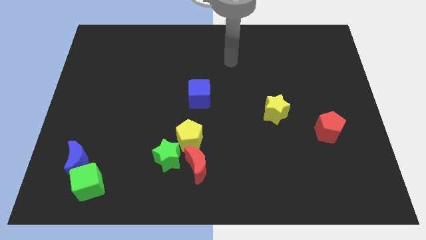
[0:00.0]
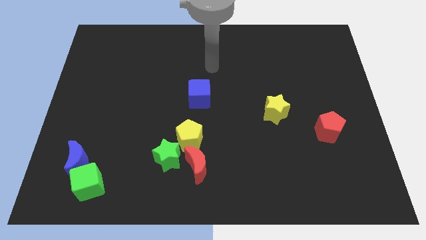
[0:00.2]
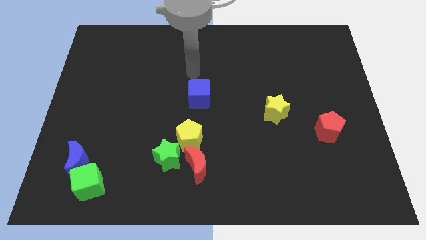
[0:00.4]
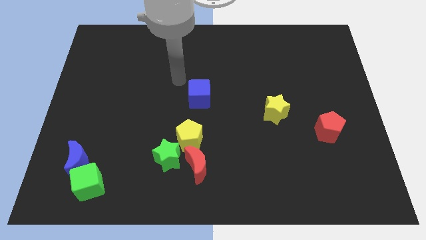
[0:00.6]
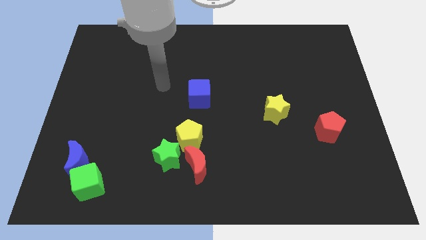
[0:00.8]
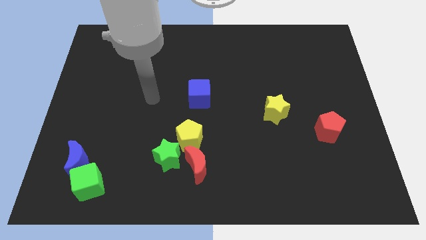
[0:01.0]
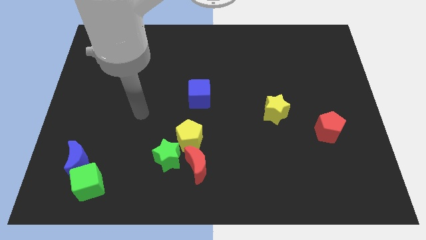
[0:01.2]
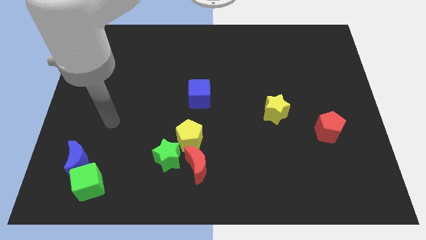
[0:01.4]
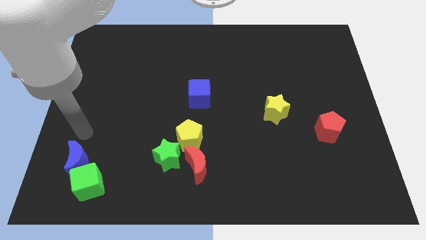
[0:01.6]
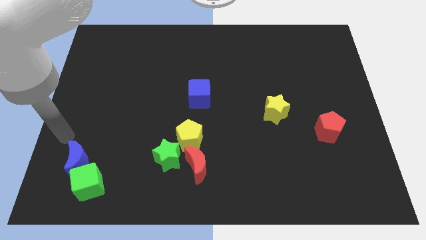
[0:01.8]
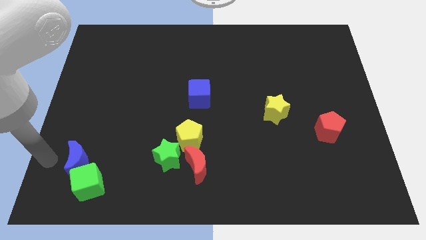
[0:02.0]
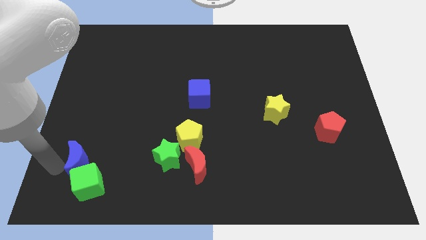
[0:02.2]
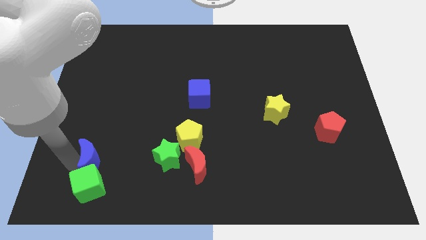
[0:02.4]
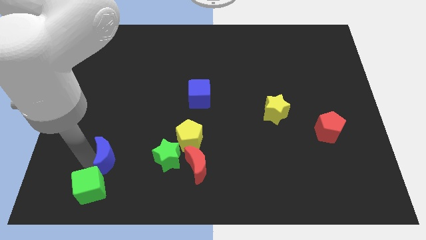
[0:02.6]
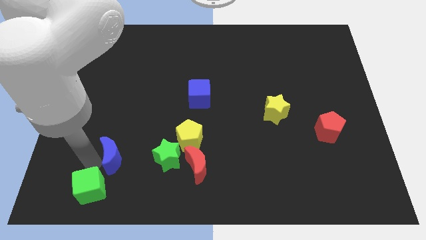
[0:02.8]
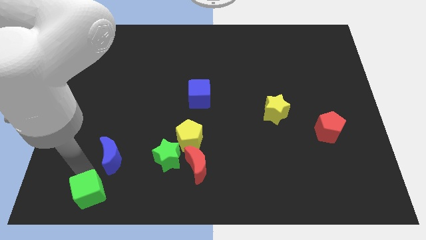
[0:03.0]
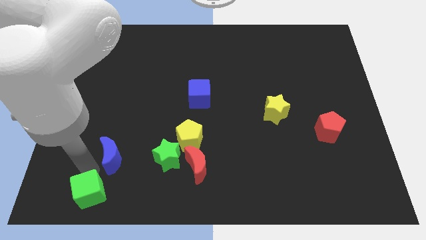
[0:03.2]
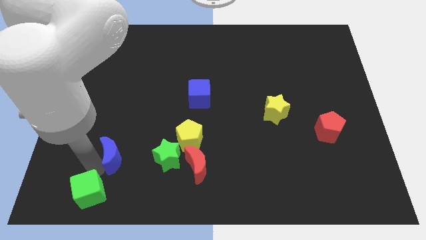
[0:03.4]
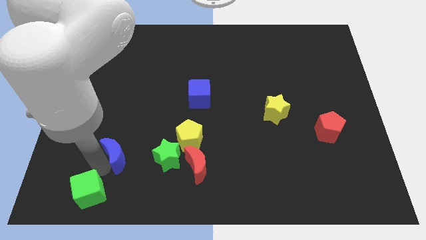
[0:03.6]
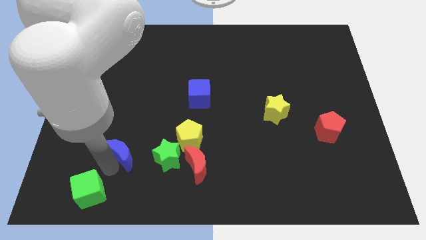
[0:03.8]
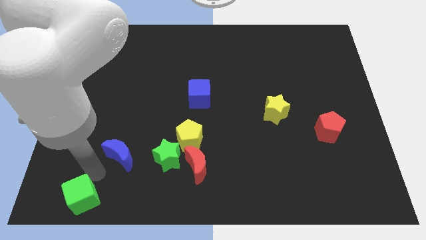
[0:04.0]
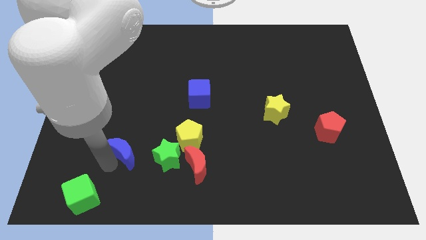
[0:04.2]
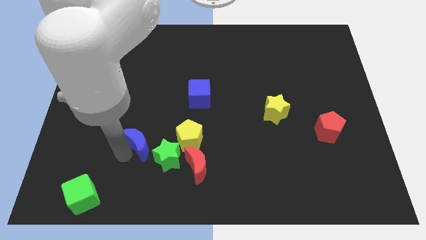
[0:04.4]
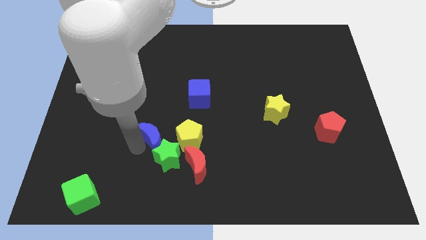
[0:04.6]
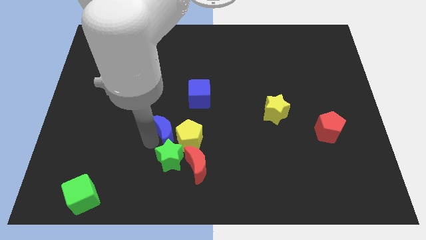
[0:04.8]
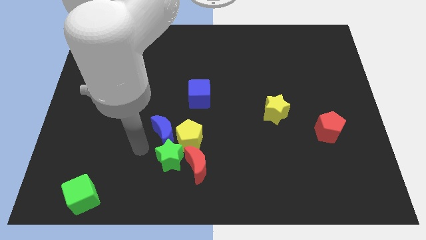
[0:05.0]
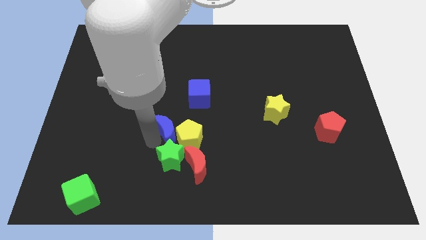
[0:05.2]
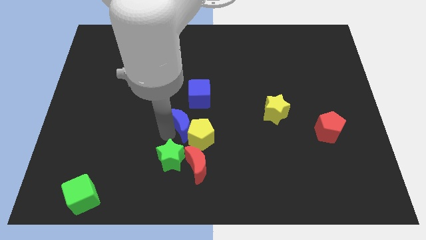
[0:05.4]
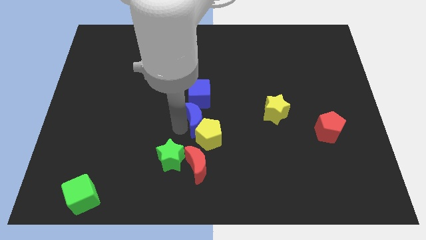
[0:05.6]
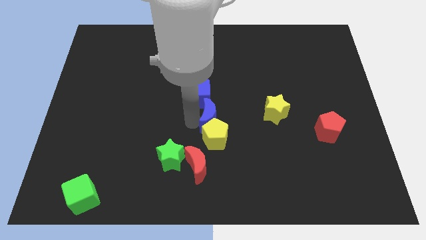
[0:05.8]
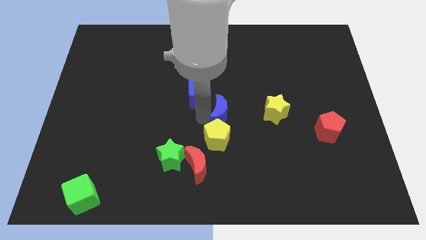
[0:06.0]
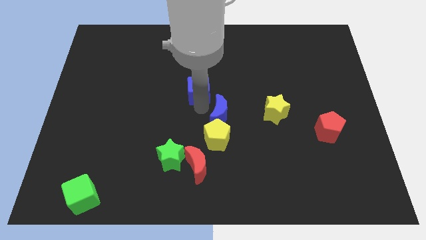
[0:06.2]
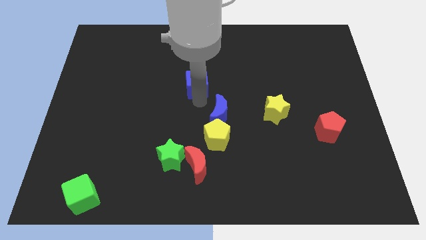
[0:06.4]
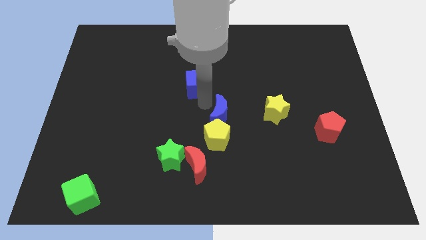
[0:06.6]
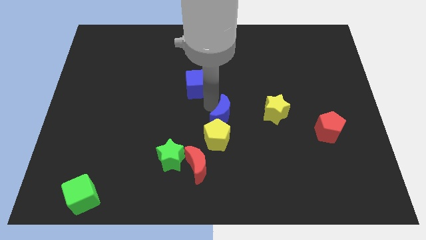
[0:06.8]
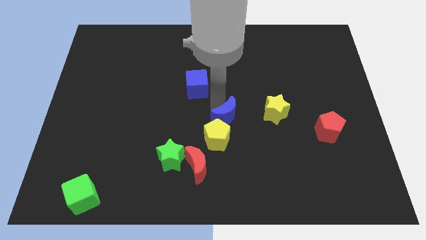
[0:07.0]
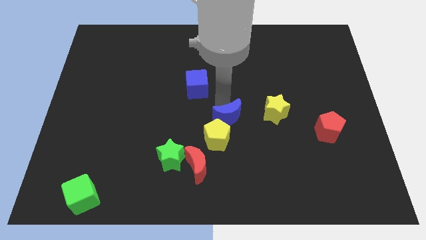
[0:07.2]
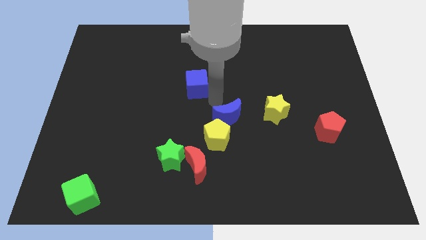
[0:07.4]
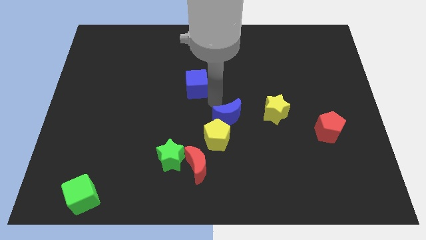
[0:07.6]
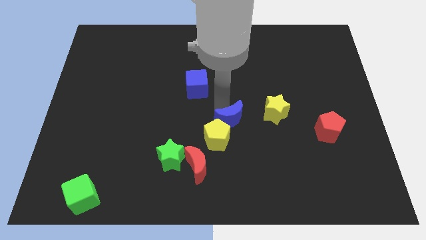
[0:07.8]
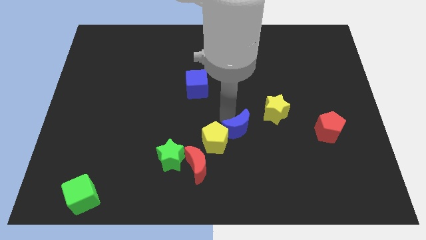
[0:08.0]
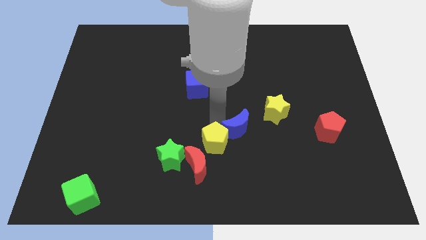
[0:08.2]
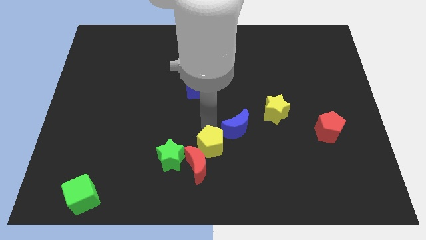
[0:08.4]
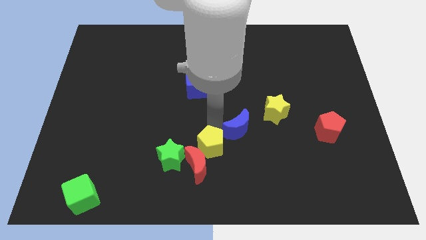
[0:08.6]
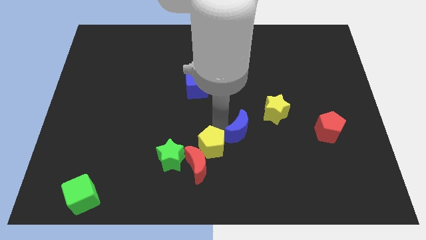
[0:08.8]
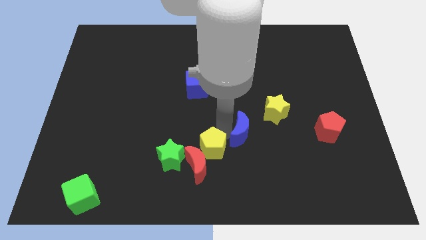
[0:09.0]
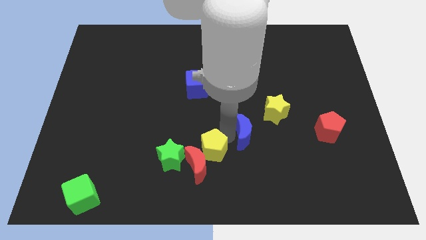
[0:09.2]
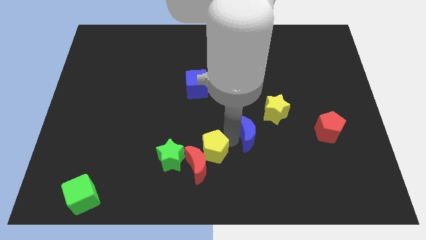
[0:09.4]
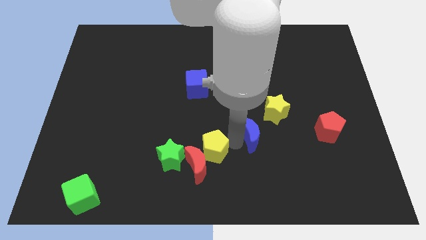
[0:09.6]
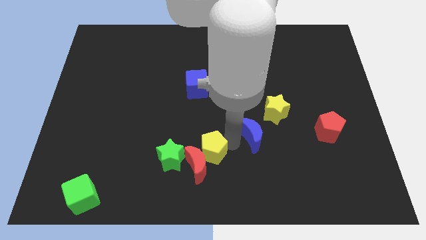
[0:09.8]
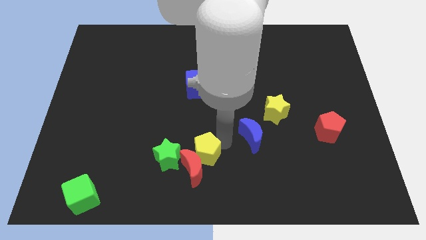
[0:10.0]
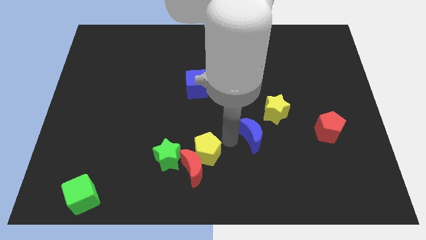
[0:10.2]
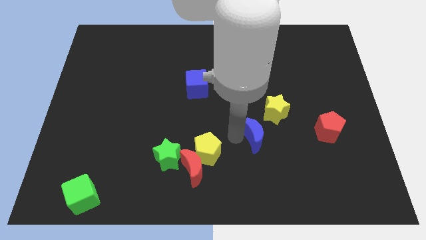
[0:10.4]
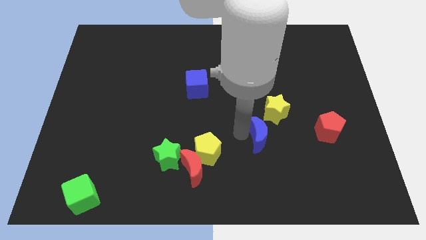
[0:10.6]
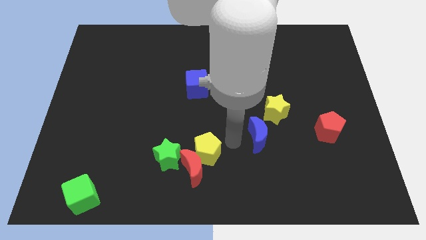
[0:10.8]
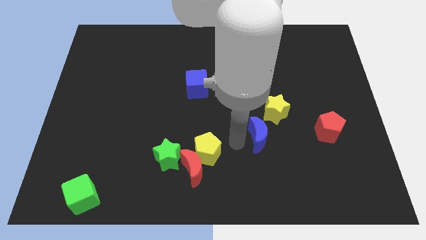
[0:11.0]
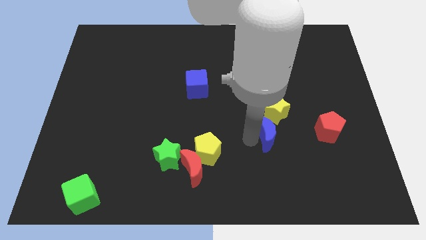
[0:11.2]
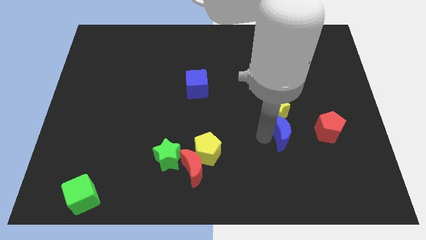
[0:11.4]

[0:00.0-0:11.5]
move the blue moon to the bottom right side of the yellow star

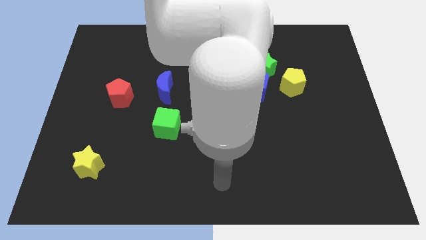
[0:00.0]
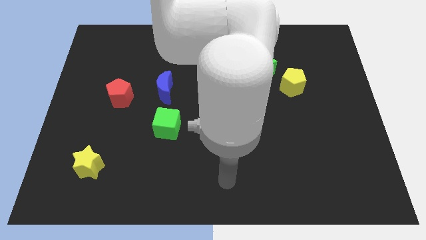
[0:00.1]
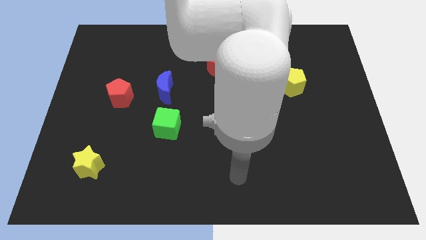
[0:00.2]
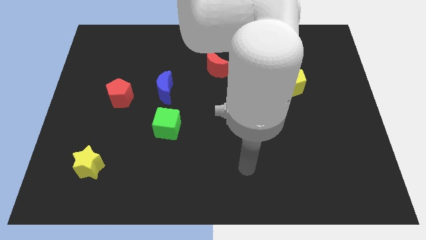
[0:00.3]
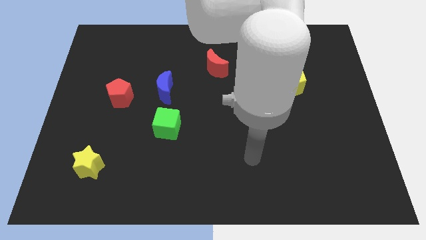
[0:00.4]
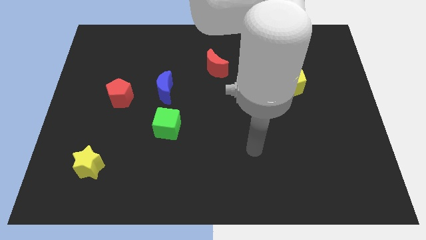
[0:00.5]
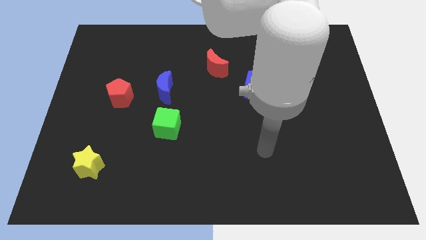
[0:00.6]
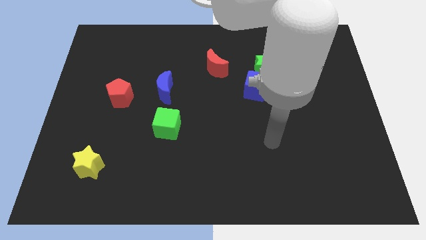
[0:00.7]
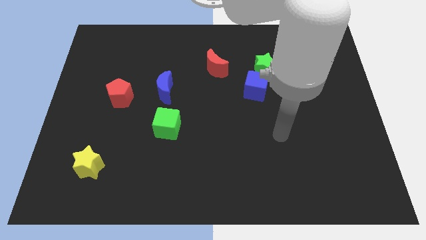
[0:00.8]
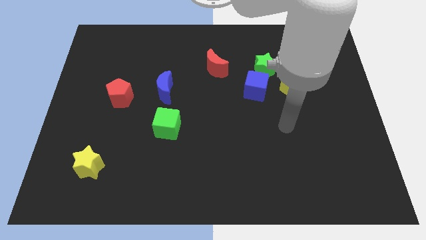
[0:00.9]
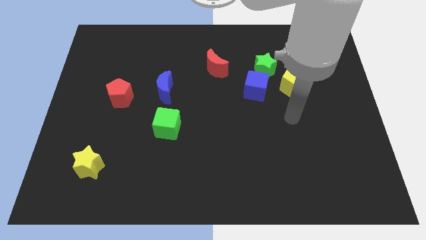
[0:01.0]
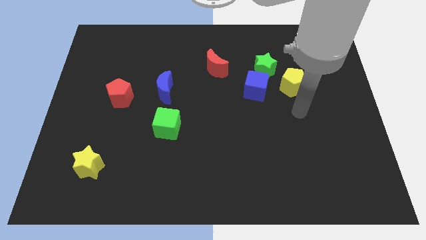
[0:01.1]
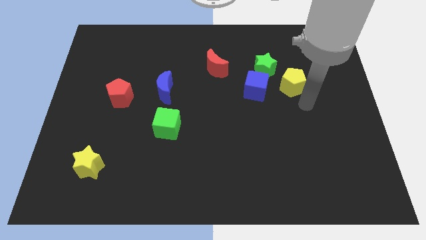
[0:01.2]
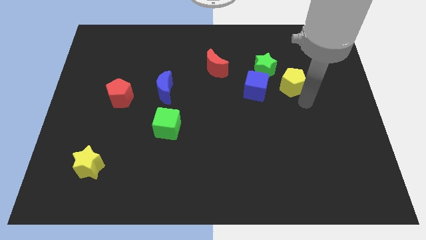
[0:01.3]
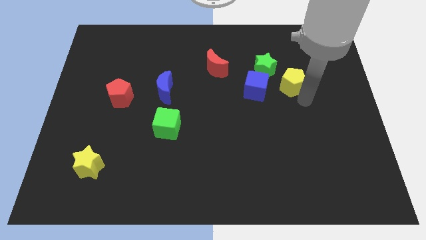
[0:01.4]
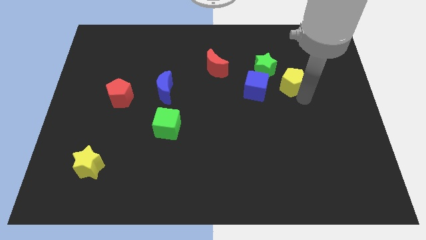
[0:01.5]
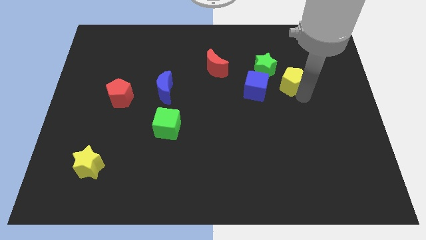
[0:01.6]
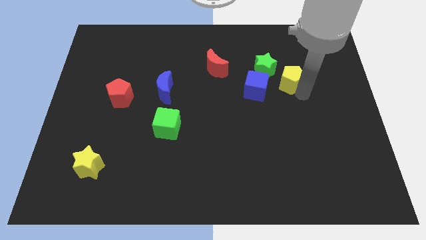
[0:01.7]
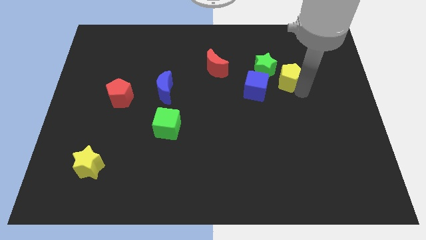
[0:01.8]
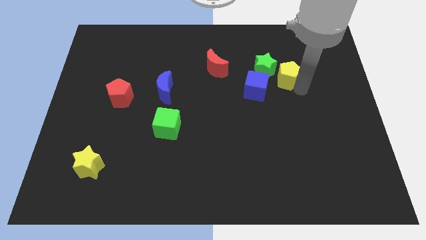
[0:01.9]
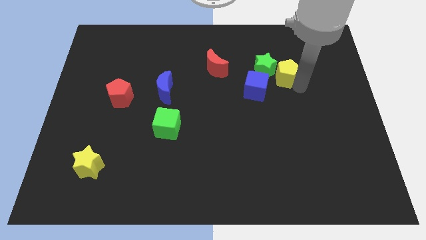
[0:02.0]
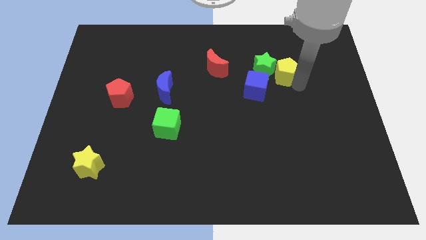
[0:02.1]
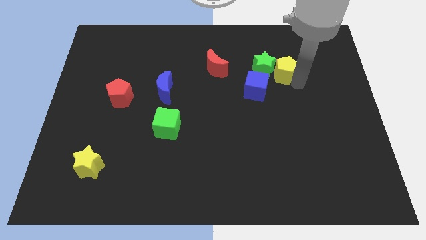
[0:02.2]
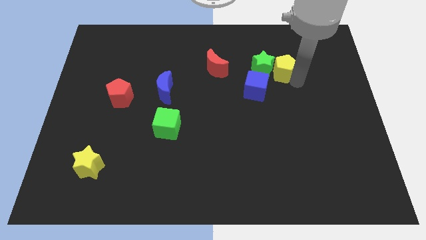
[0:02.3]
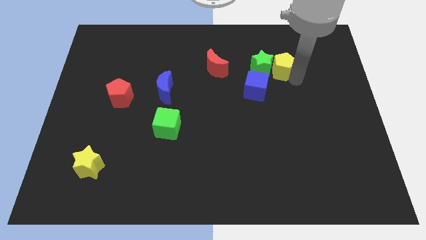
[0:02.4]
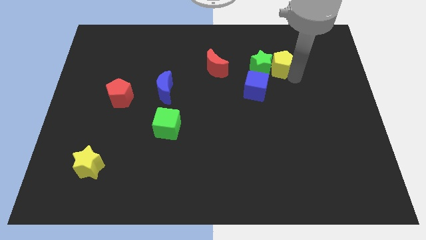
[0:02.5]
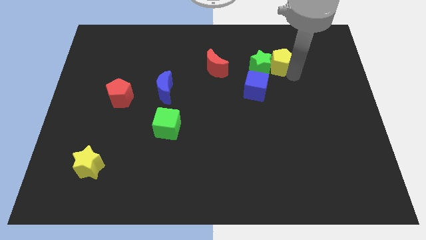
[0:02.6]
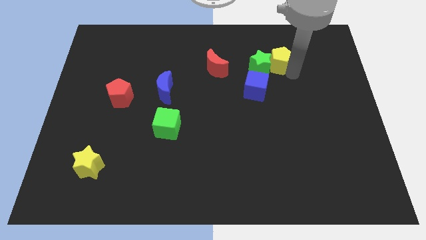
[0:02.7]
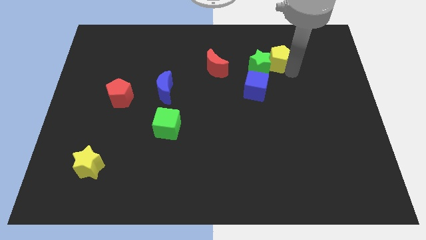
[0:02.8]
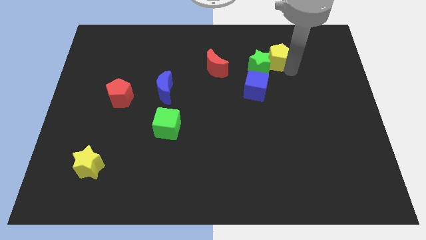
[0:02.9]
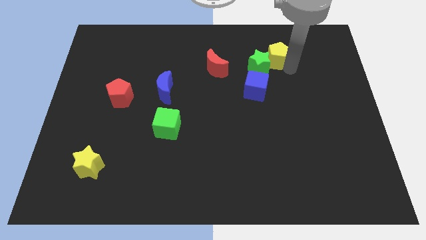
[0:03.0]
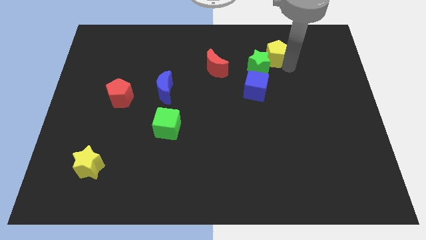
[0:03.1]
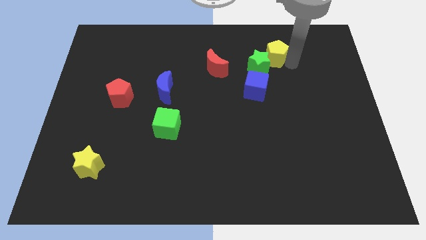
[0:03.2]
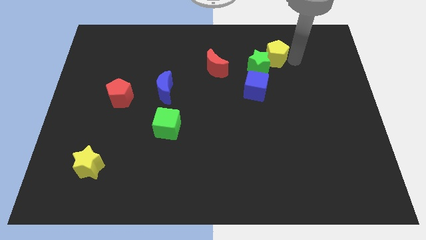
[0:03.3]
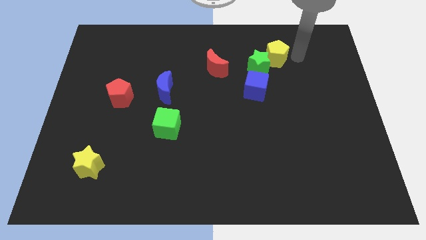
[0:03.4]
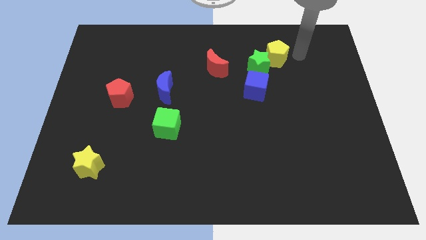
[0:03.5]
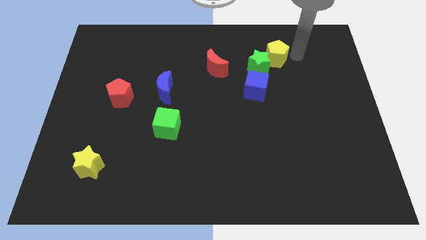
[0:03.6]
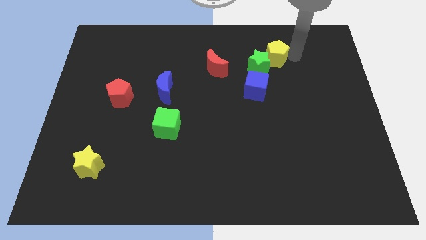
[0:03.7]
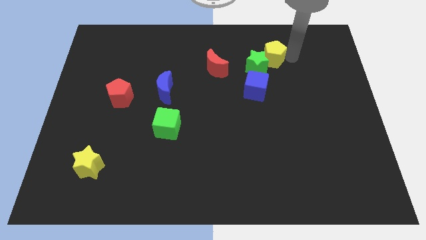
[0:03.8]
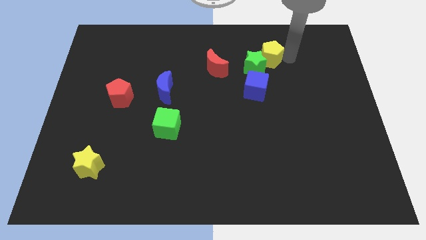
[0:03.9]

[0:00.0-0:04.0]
move the yellow pentagon to the top side of the blue cube
